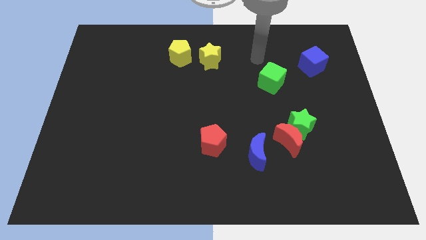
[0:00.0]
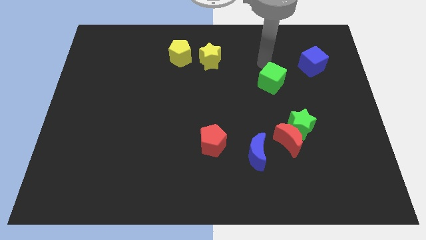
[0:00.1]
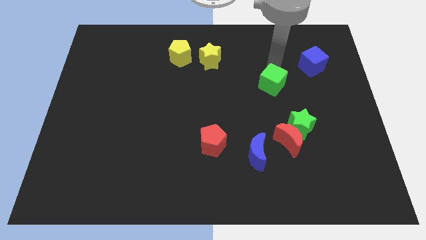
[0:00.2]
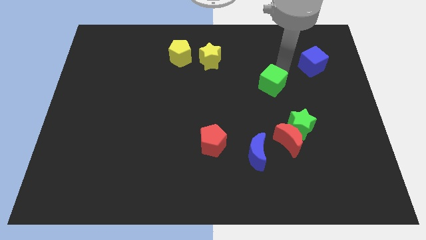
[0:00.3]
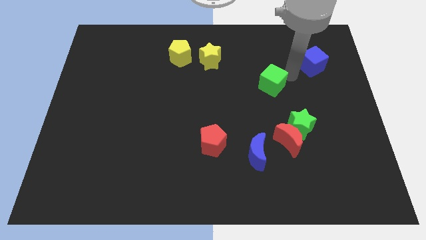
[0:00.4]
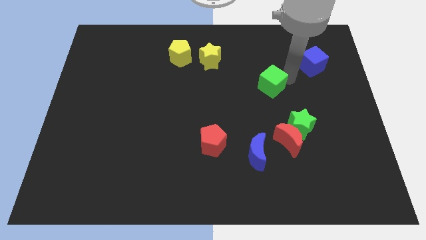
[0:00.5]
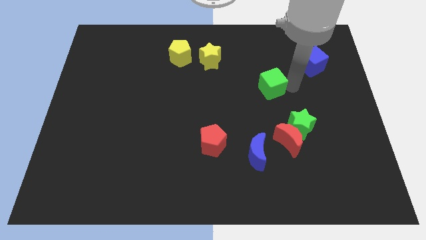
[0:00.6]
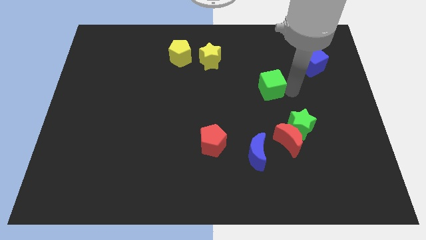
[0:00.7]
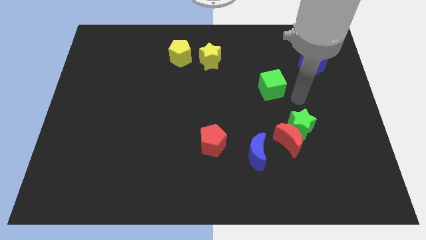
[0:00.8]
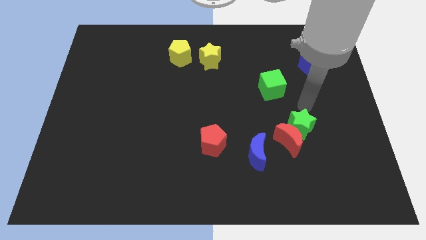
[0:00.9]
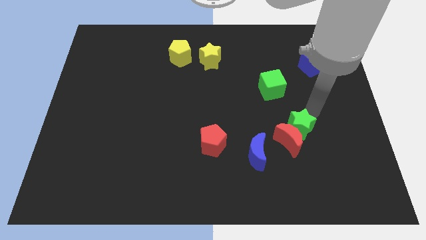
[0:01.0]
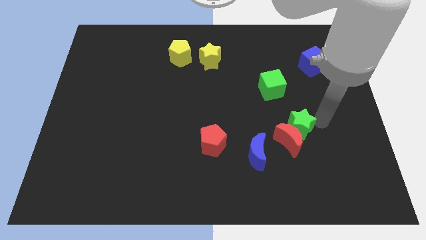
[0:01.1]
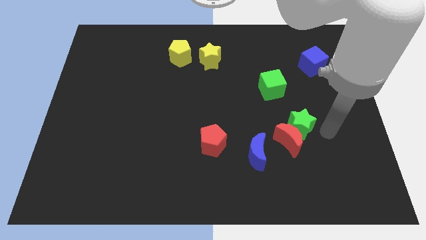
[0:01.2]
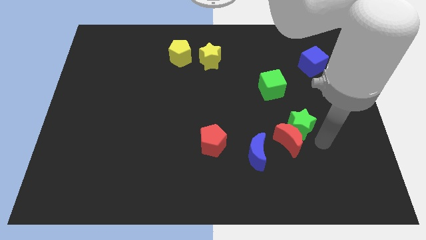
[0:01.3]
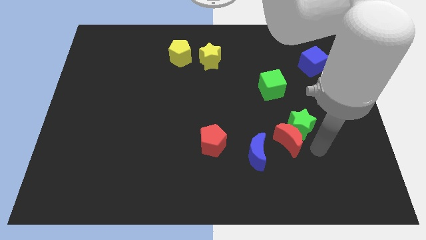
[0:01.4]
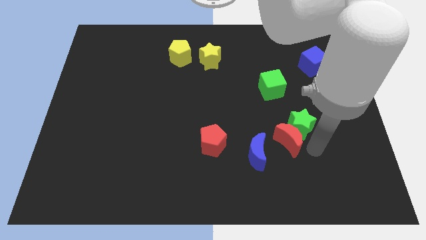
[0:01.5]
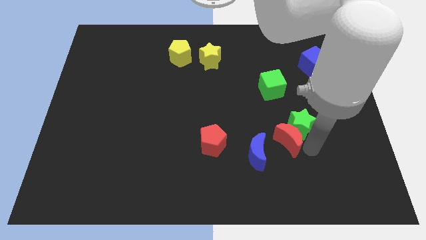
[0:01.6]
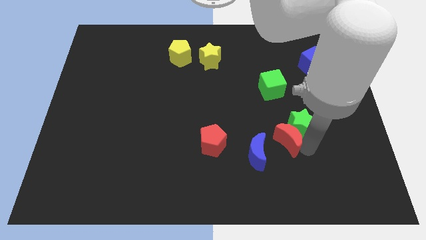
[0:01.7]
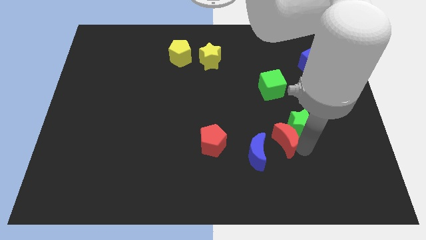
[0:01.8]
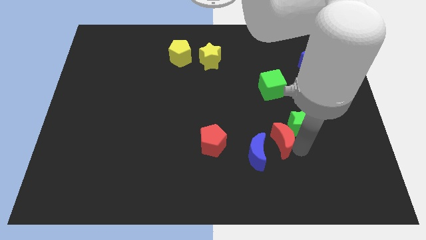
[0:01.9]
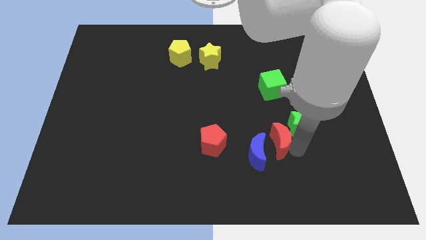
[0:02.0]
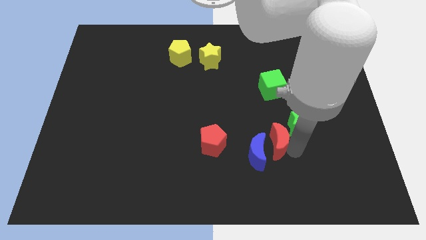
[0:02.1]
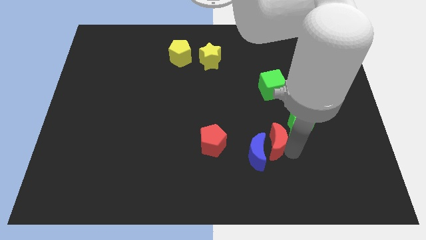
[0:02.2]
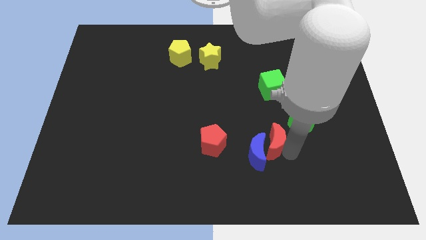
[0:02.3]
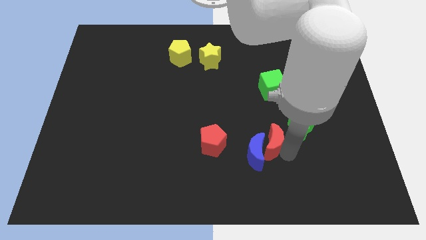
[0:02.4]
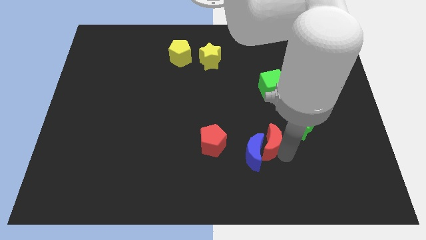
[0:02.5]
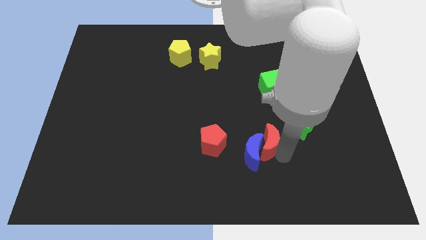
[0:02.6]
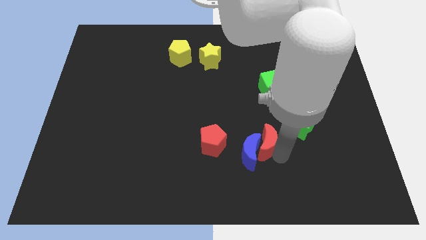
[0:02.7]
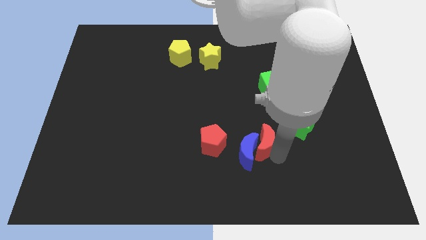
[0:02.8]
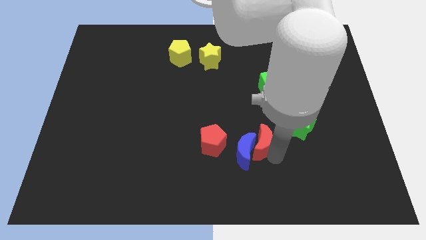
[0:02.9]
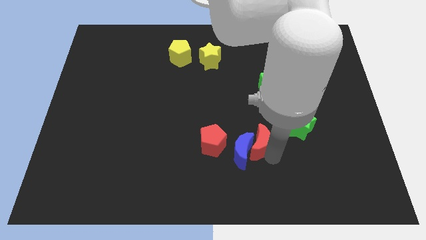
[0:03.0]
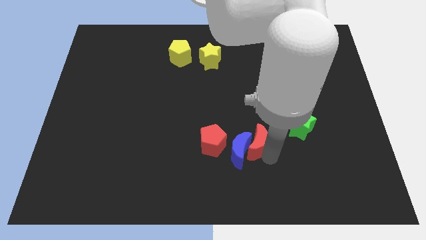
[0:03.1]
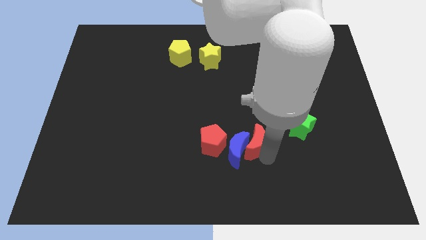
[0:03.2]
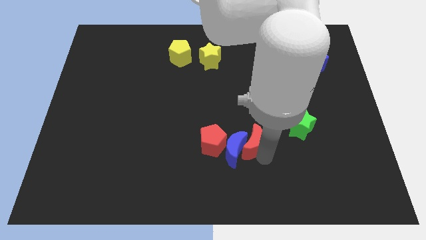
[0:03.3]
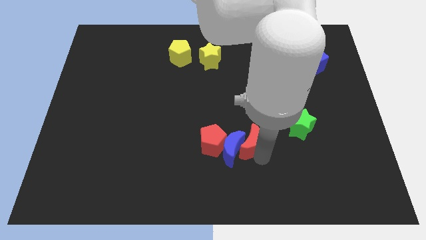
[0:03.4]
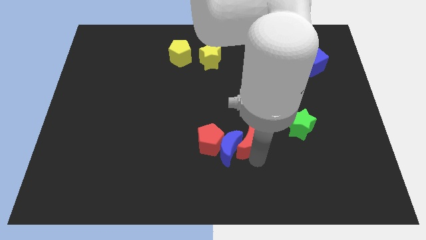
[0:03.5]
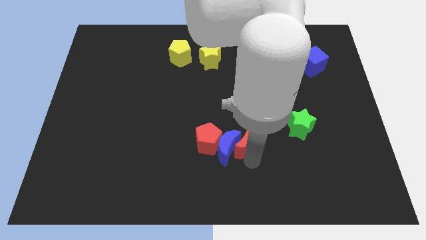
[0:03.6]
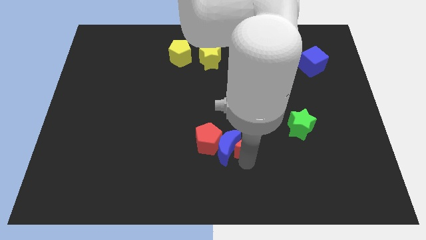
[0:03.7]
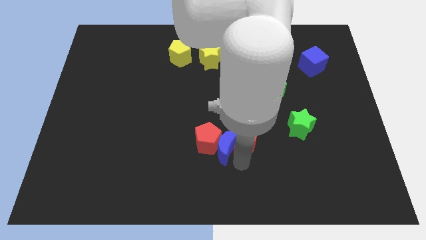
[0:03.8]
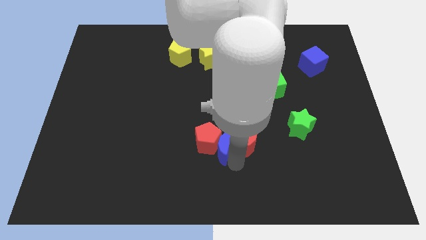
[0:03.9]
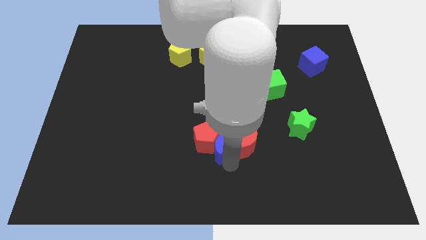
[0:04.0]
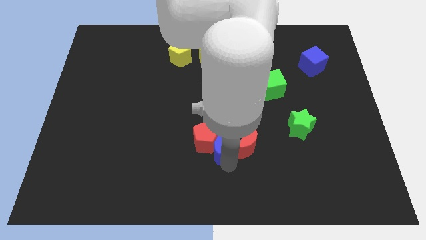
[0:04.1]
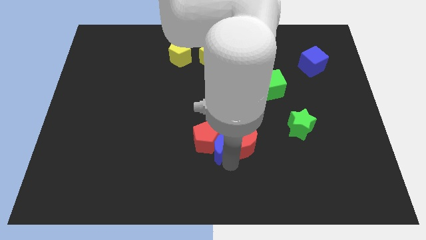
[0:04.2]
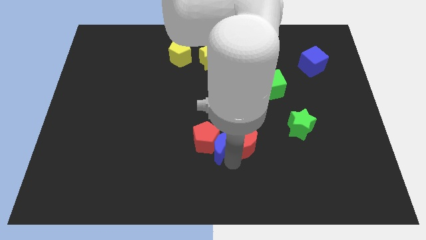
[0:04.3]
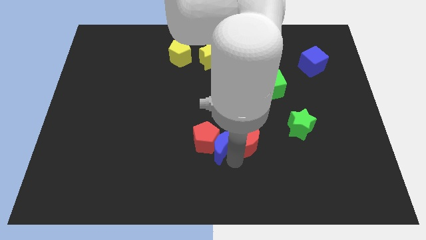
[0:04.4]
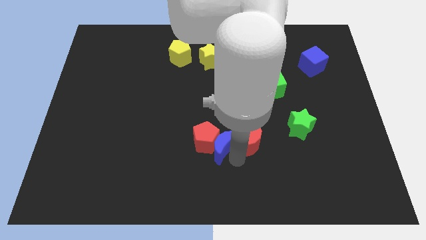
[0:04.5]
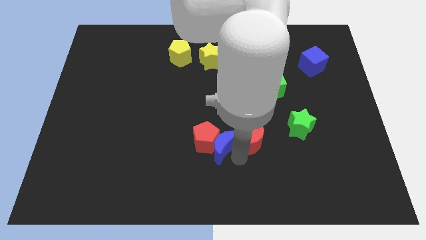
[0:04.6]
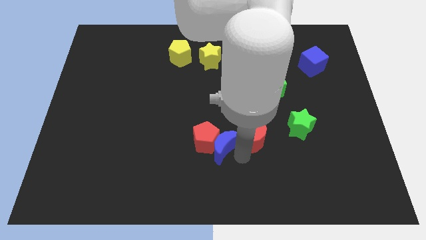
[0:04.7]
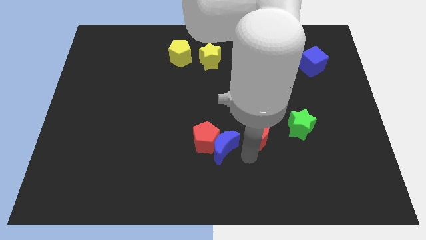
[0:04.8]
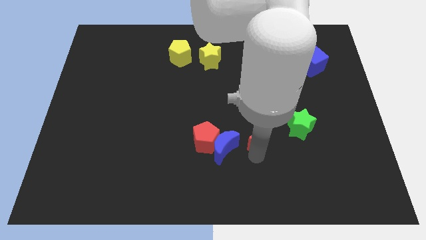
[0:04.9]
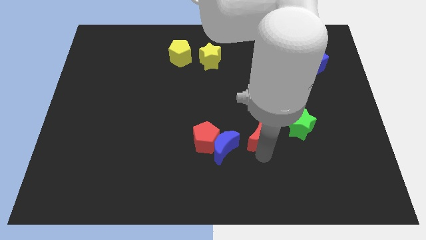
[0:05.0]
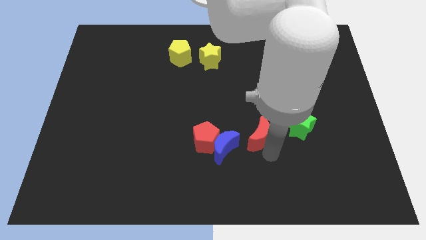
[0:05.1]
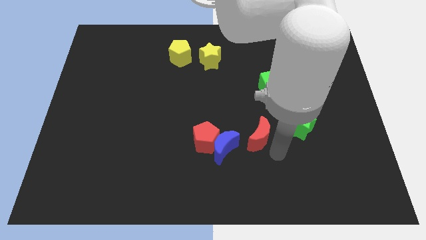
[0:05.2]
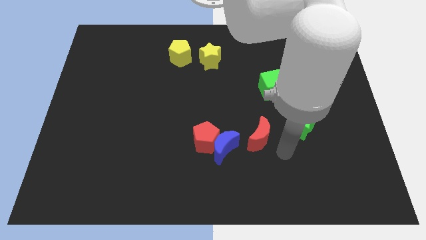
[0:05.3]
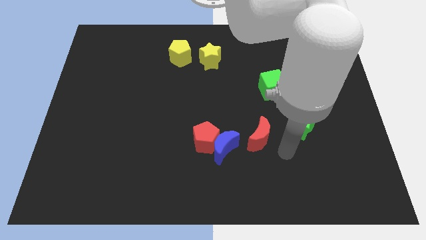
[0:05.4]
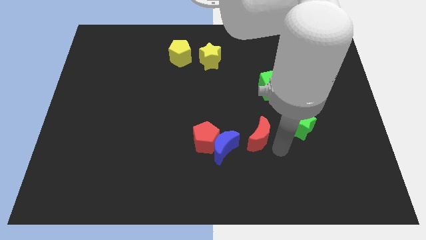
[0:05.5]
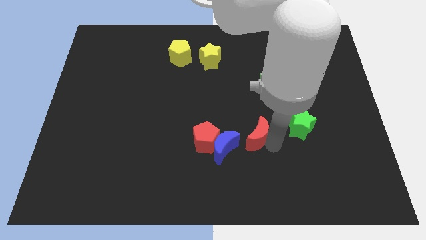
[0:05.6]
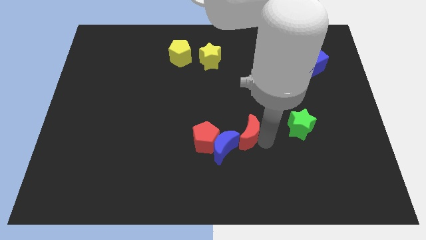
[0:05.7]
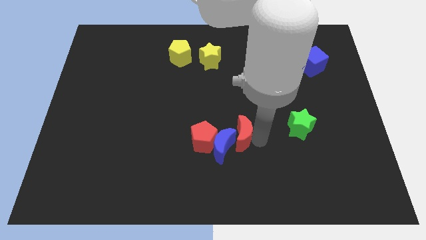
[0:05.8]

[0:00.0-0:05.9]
move the red moon to the middle of the board
